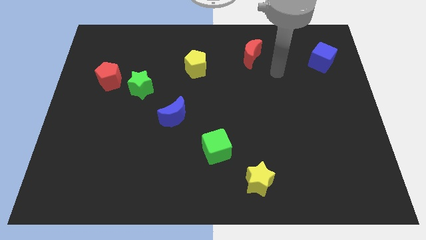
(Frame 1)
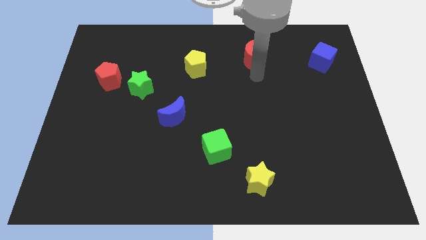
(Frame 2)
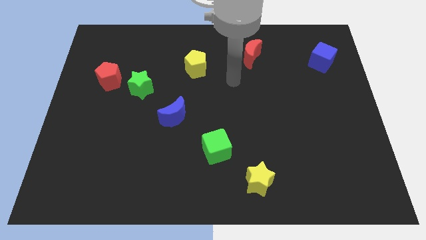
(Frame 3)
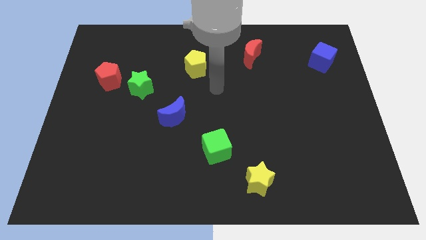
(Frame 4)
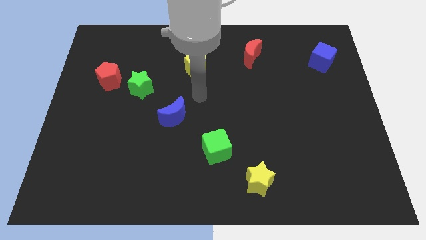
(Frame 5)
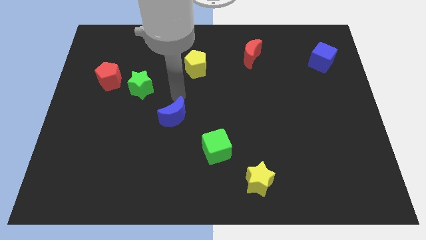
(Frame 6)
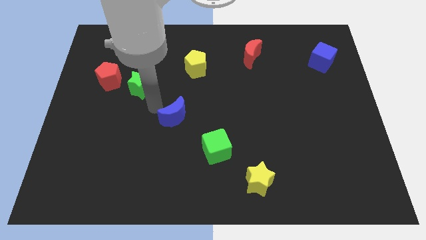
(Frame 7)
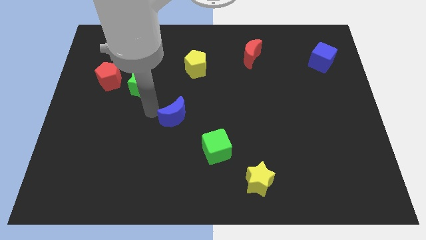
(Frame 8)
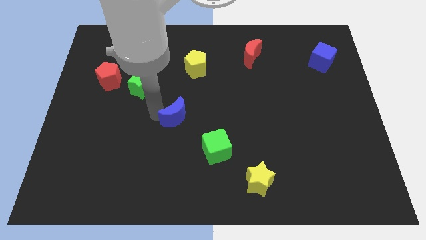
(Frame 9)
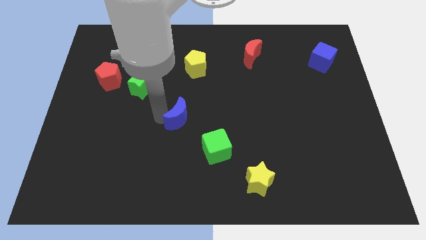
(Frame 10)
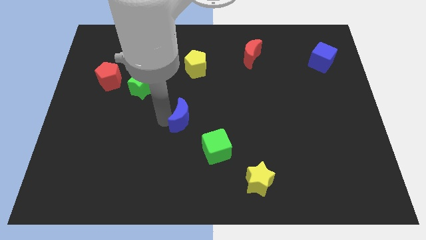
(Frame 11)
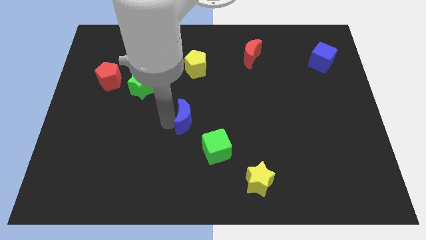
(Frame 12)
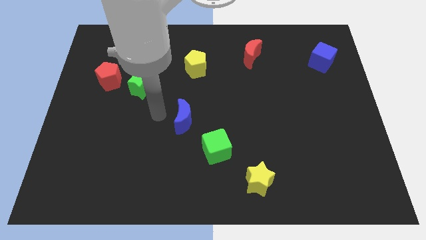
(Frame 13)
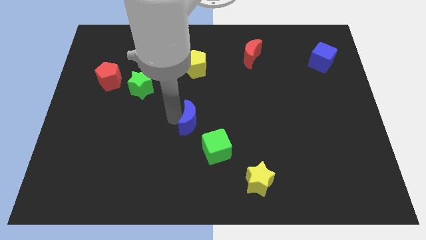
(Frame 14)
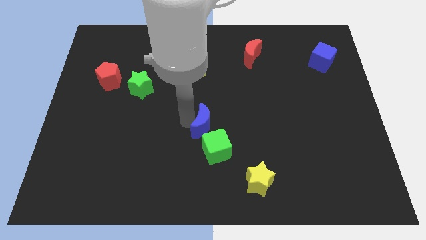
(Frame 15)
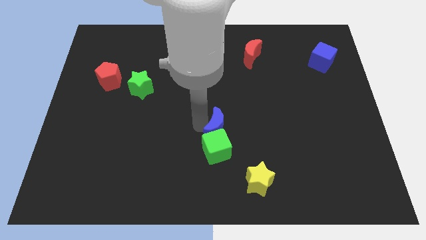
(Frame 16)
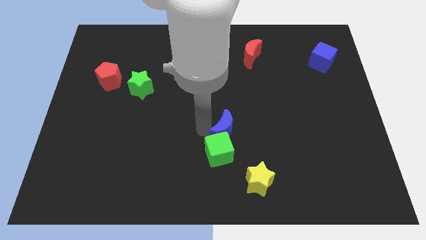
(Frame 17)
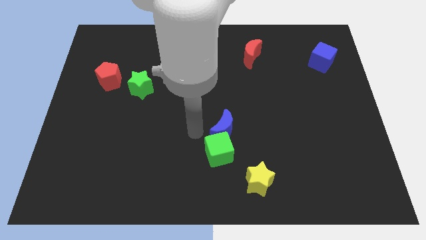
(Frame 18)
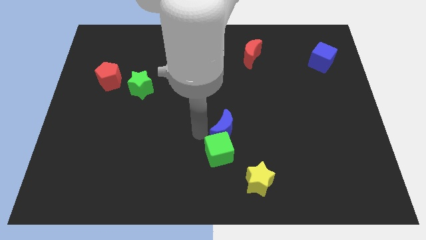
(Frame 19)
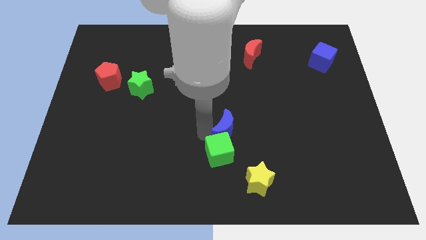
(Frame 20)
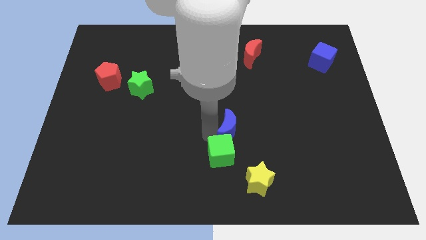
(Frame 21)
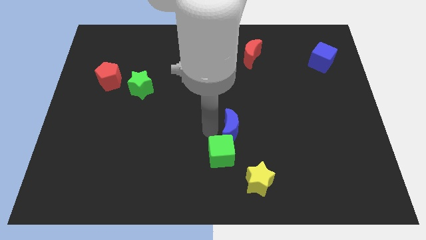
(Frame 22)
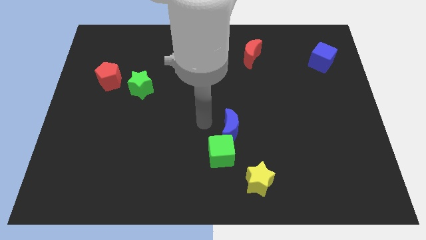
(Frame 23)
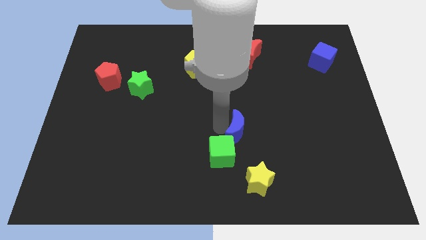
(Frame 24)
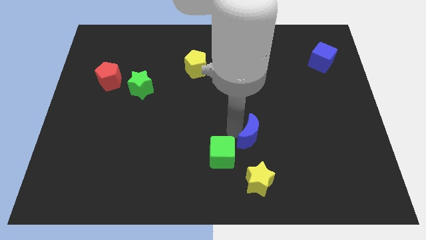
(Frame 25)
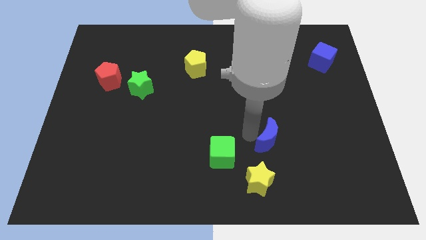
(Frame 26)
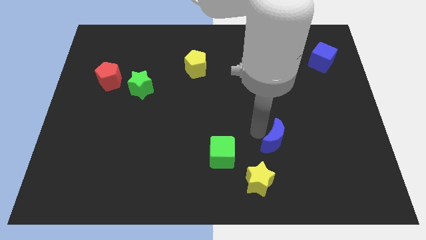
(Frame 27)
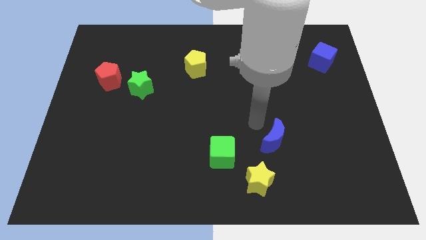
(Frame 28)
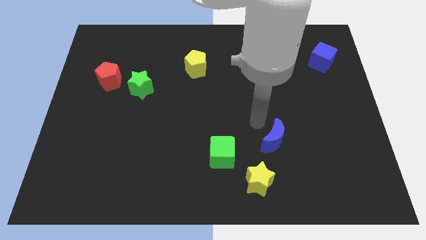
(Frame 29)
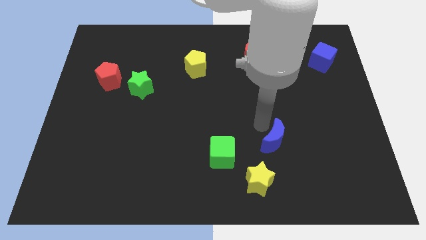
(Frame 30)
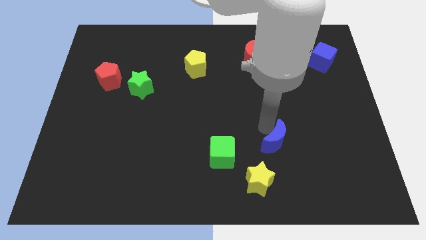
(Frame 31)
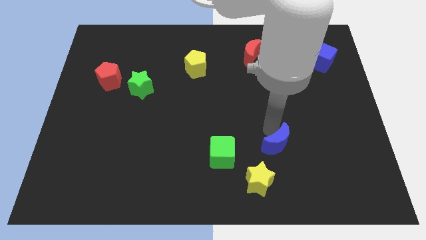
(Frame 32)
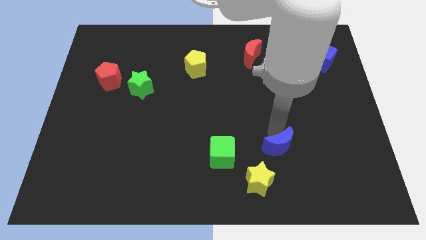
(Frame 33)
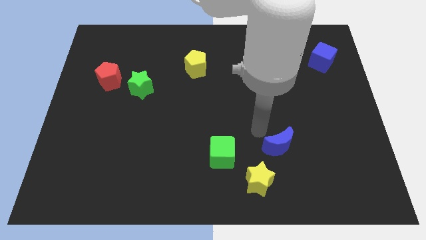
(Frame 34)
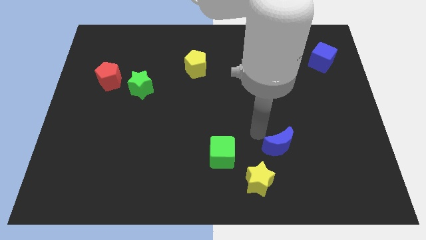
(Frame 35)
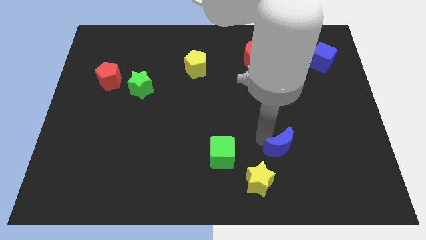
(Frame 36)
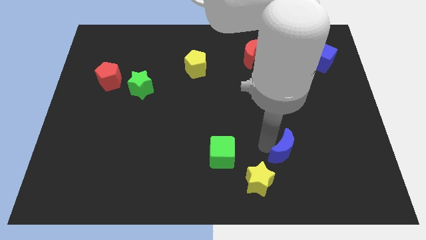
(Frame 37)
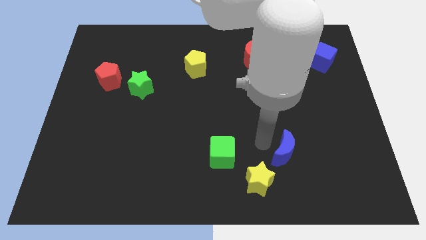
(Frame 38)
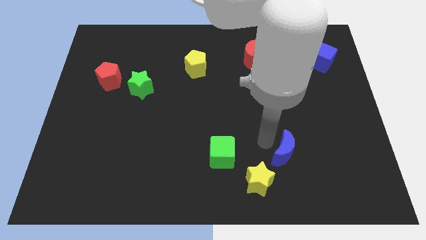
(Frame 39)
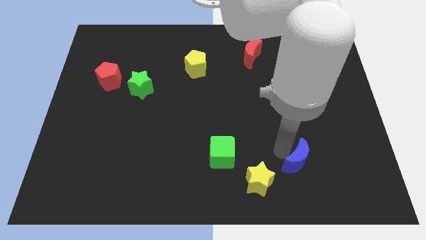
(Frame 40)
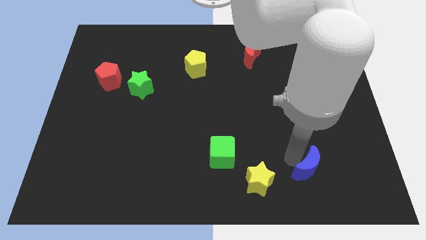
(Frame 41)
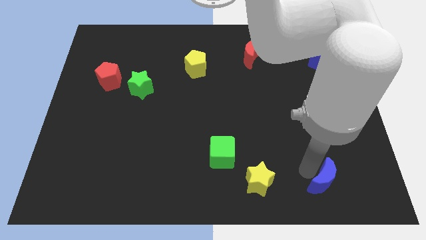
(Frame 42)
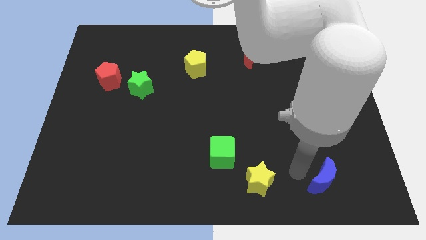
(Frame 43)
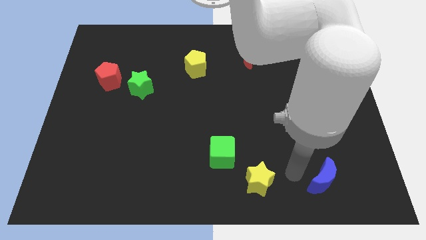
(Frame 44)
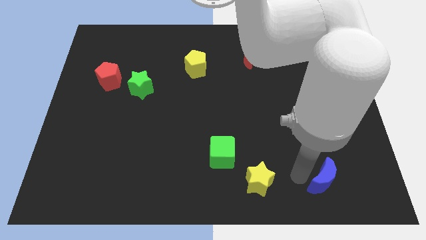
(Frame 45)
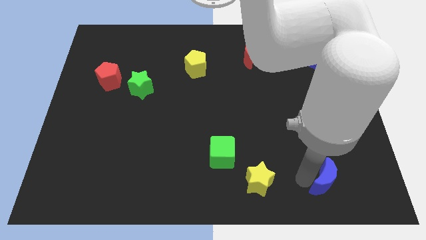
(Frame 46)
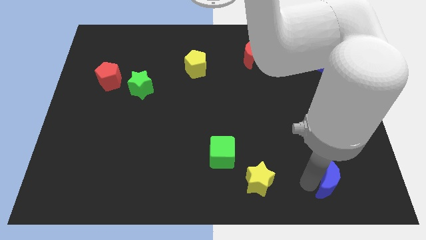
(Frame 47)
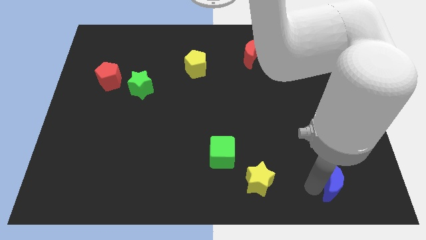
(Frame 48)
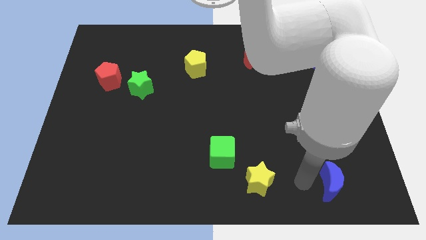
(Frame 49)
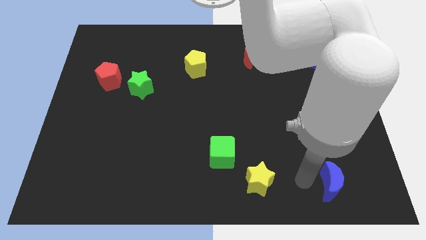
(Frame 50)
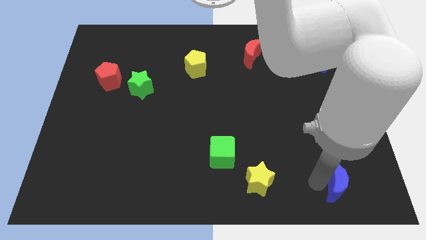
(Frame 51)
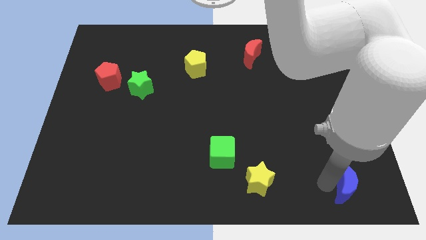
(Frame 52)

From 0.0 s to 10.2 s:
put the blue moon to the bottom right corner
